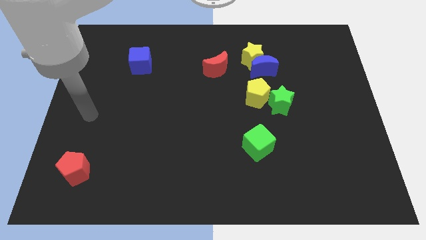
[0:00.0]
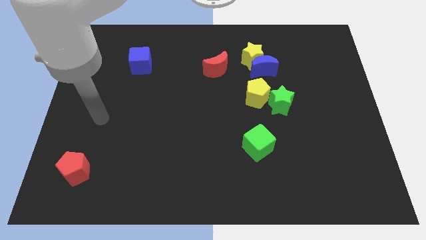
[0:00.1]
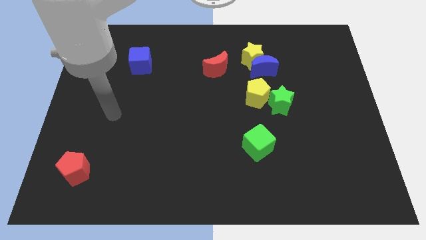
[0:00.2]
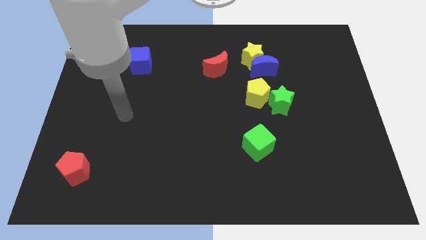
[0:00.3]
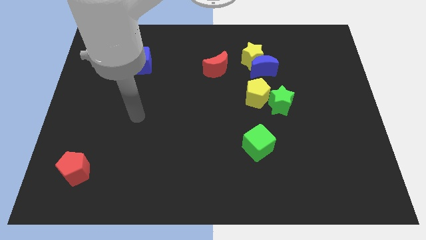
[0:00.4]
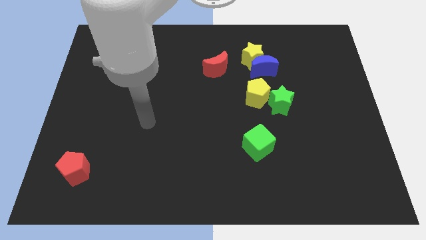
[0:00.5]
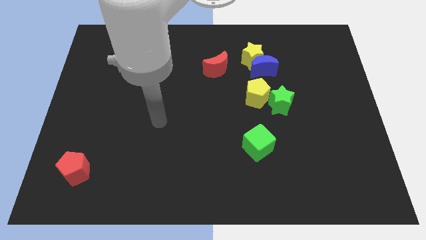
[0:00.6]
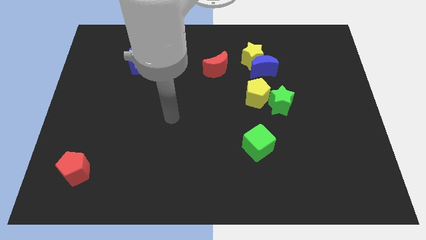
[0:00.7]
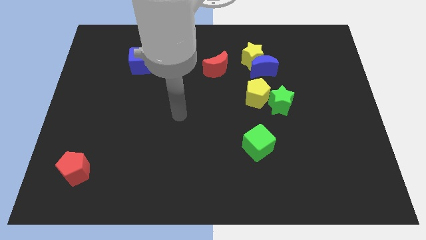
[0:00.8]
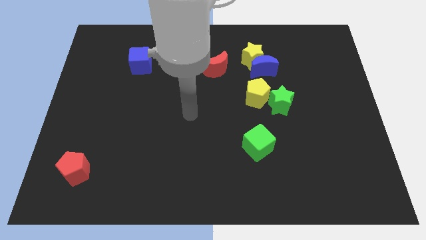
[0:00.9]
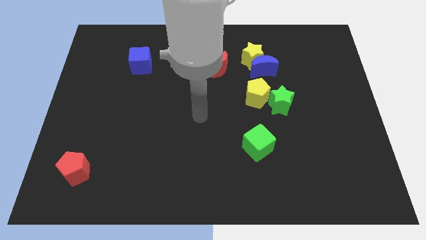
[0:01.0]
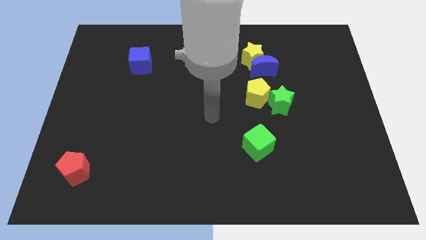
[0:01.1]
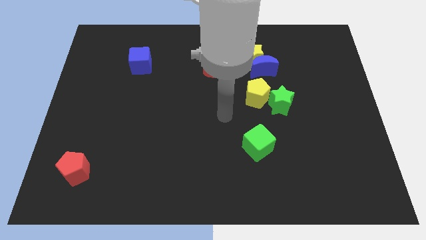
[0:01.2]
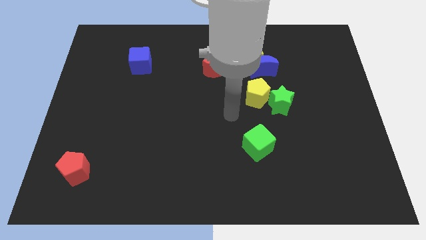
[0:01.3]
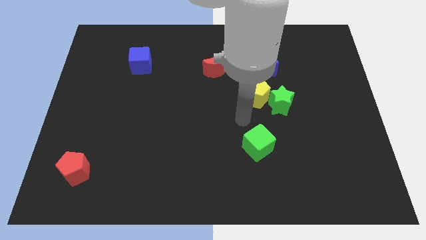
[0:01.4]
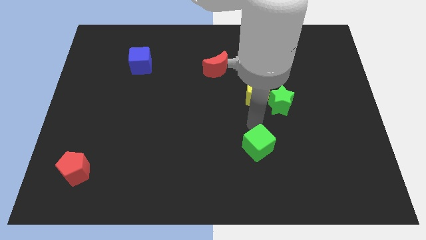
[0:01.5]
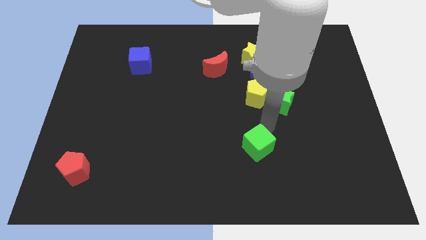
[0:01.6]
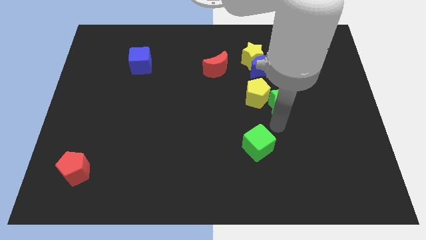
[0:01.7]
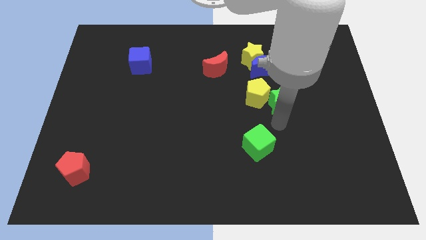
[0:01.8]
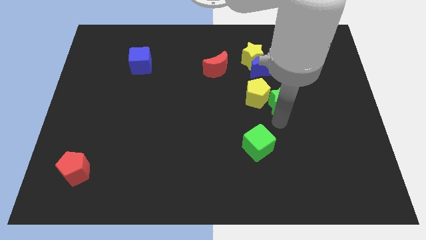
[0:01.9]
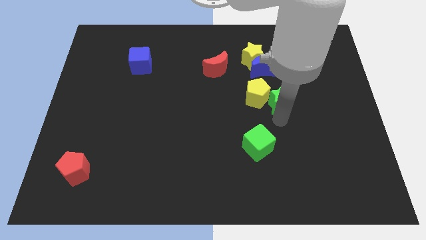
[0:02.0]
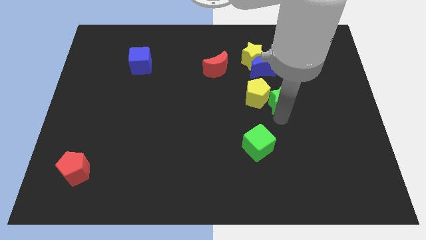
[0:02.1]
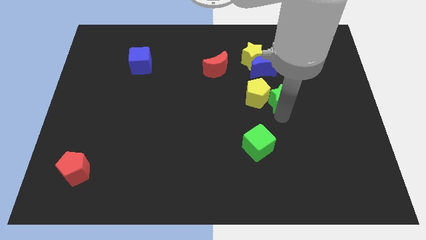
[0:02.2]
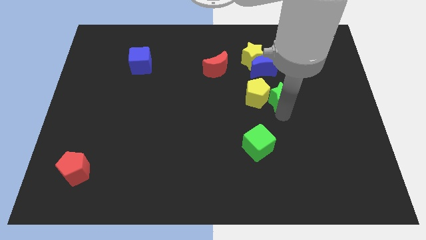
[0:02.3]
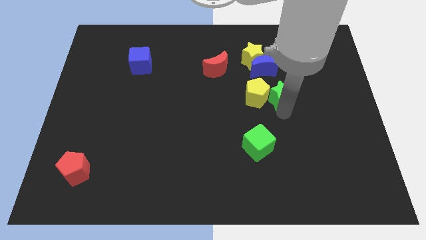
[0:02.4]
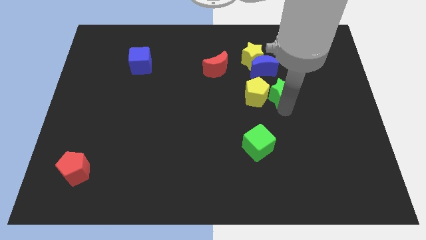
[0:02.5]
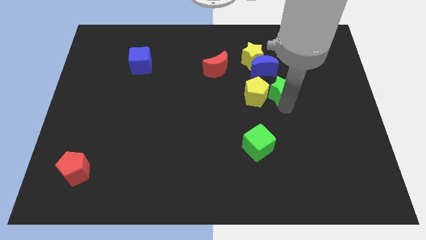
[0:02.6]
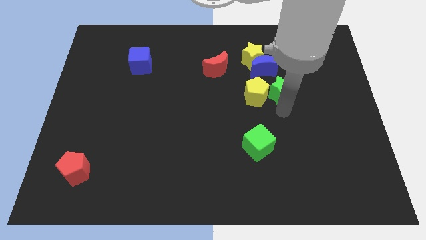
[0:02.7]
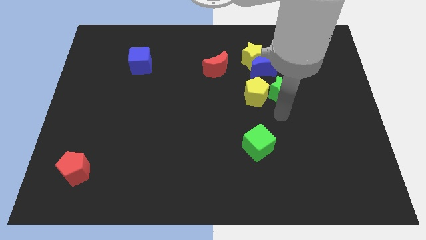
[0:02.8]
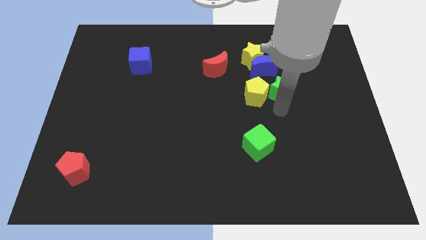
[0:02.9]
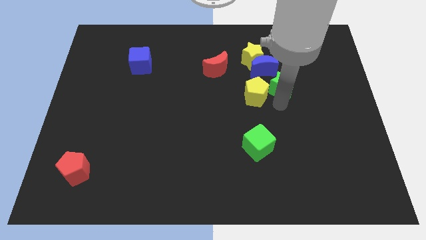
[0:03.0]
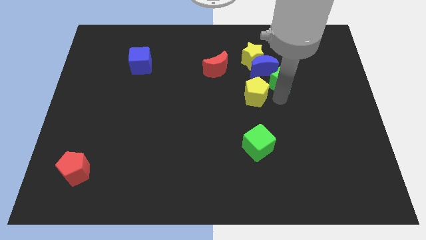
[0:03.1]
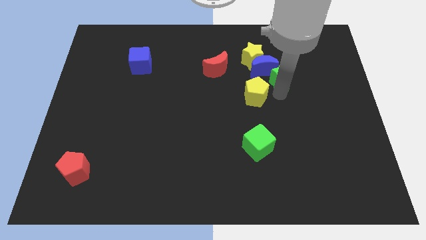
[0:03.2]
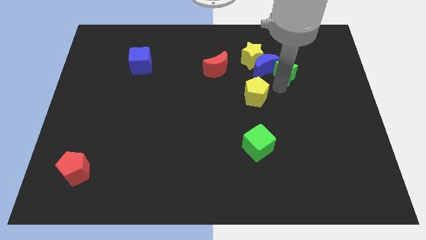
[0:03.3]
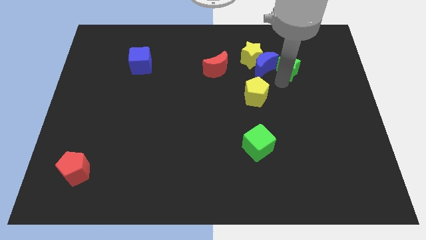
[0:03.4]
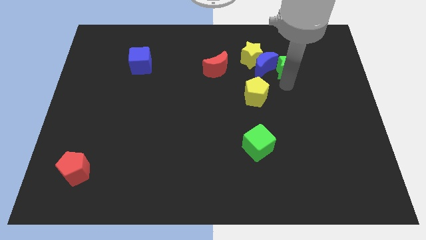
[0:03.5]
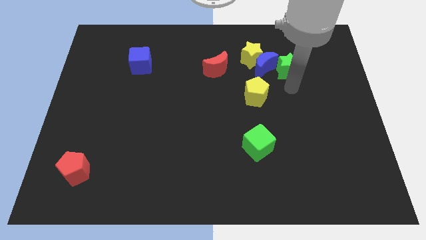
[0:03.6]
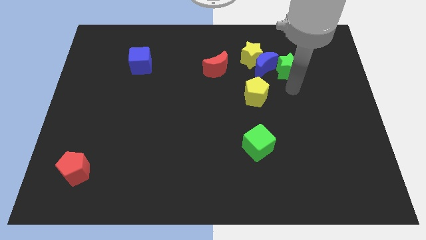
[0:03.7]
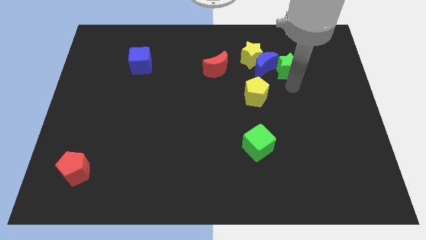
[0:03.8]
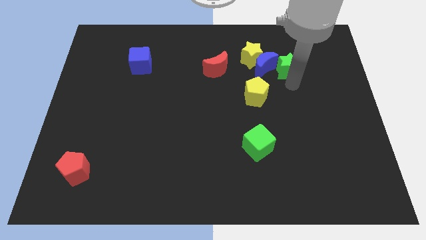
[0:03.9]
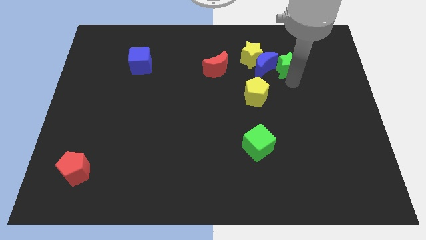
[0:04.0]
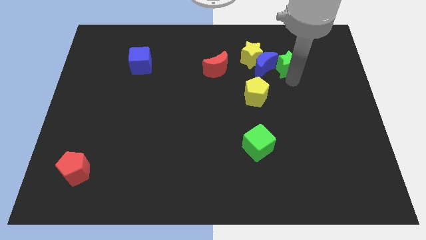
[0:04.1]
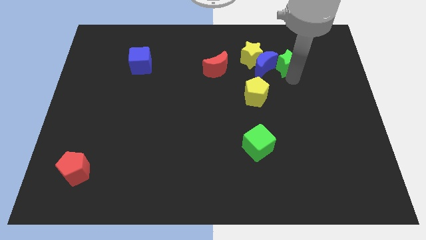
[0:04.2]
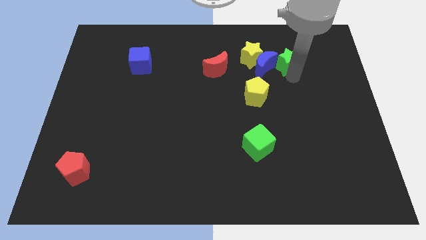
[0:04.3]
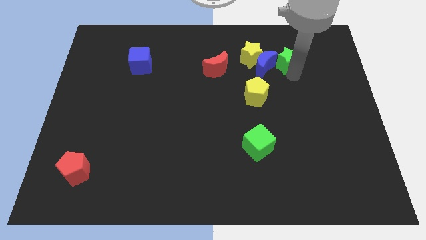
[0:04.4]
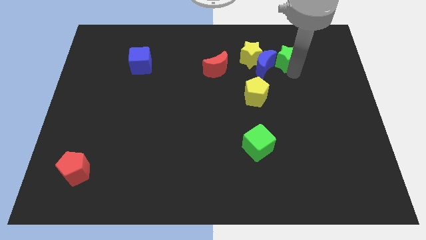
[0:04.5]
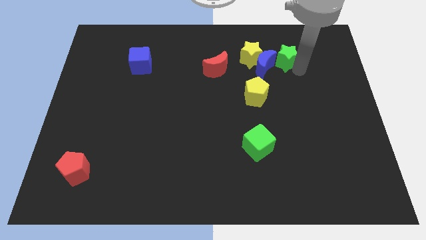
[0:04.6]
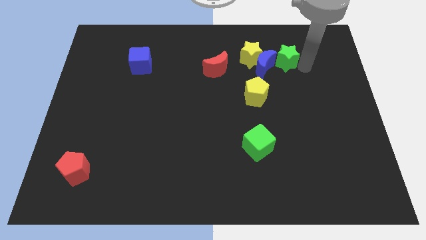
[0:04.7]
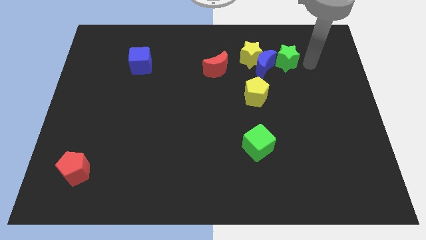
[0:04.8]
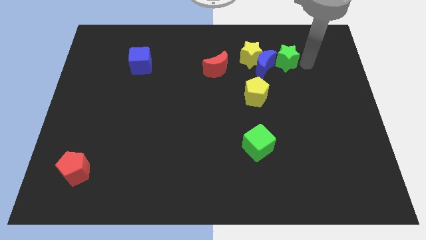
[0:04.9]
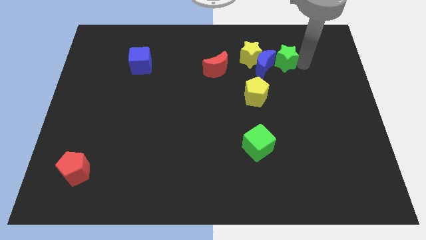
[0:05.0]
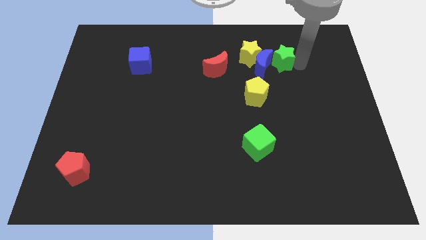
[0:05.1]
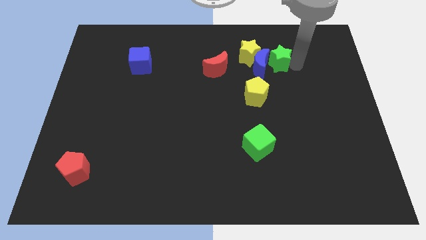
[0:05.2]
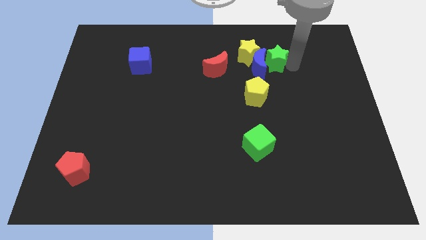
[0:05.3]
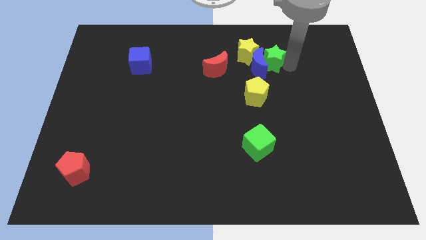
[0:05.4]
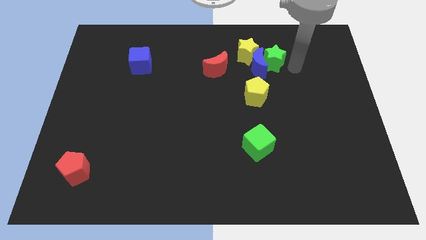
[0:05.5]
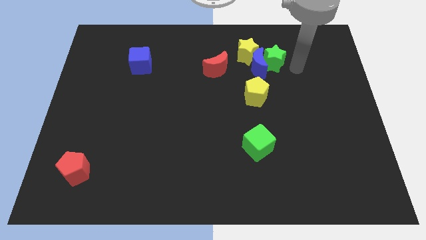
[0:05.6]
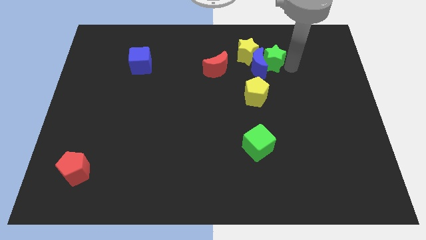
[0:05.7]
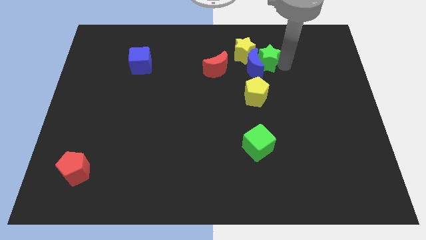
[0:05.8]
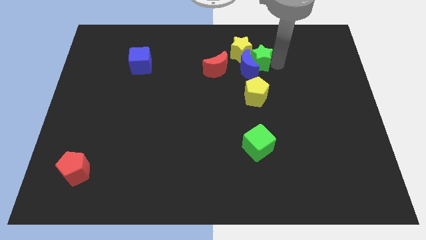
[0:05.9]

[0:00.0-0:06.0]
slide the green star towards the yellow star

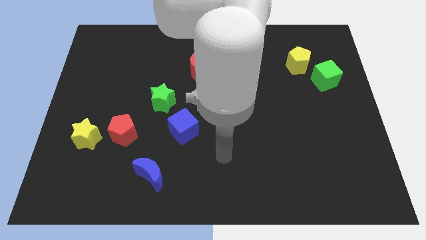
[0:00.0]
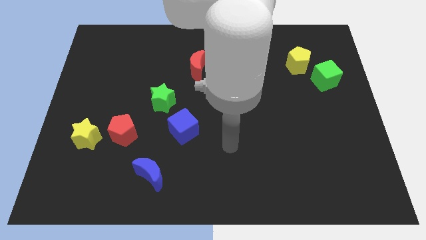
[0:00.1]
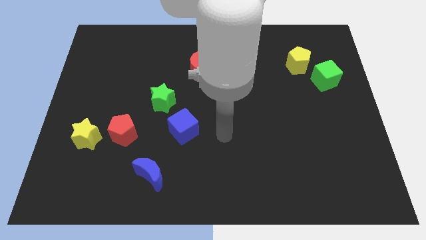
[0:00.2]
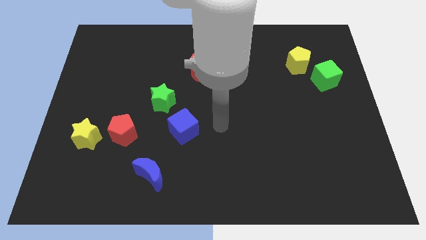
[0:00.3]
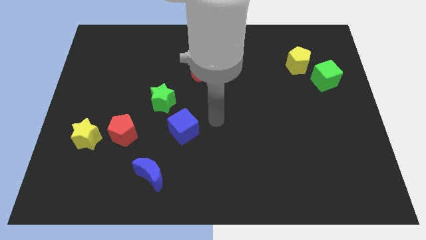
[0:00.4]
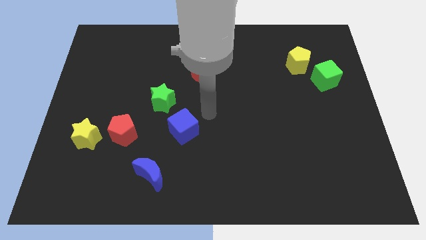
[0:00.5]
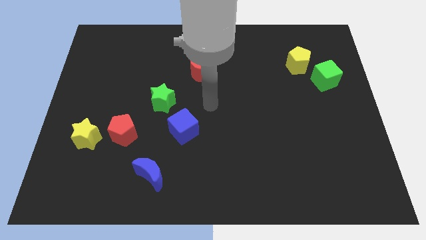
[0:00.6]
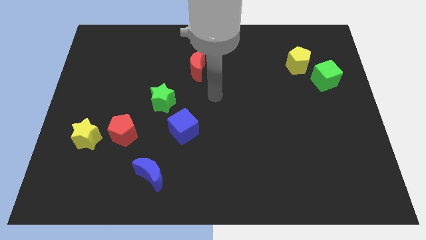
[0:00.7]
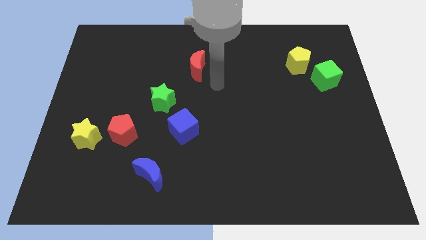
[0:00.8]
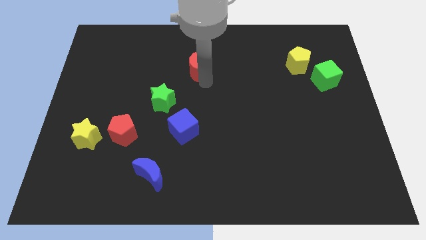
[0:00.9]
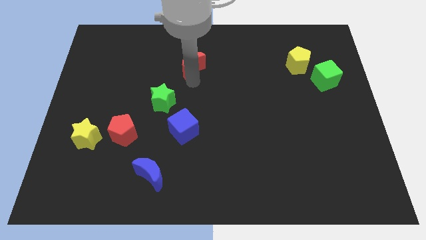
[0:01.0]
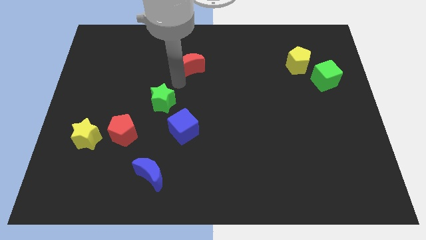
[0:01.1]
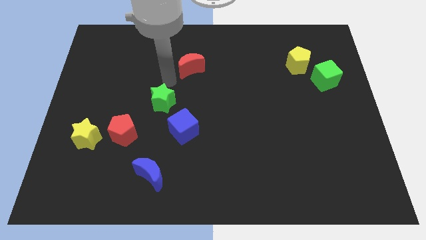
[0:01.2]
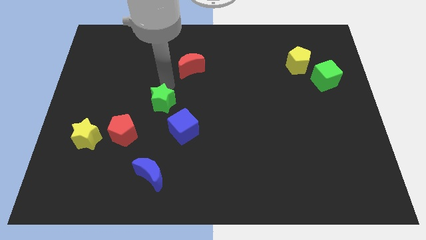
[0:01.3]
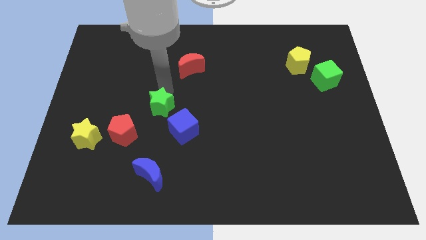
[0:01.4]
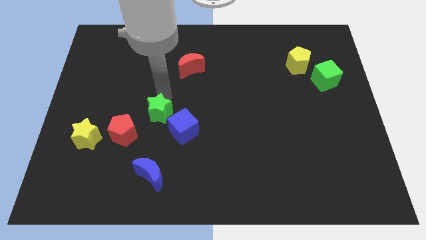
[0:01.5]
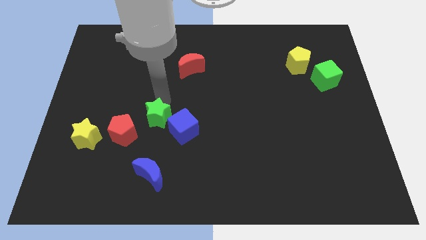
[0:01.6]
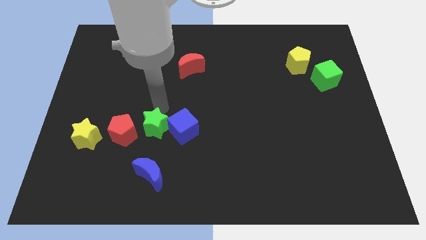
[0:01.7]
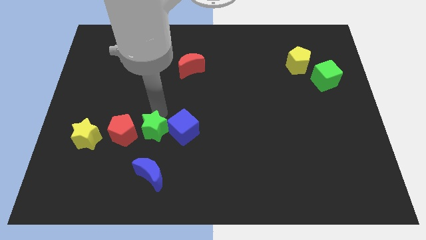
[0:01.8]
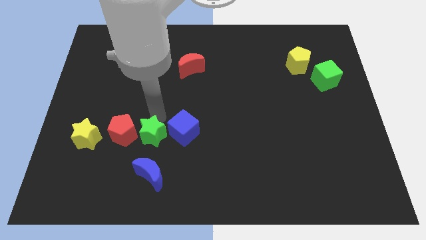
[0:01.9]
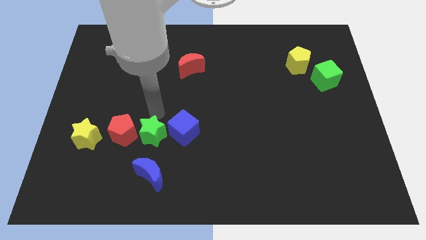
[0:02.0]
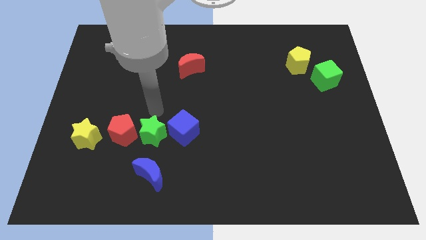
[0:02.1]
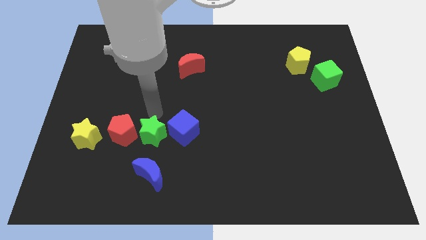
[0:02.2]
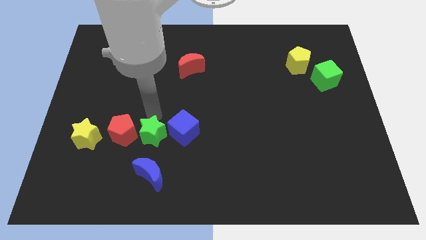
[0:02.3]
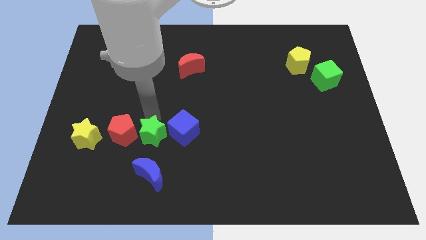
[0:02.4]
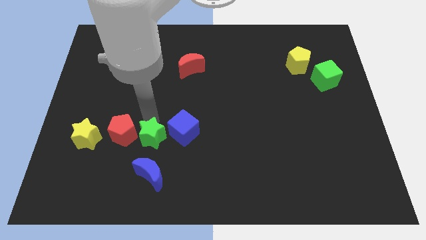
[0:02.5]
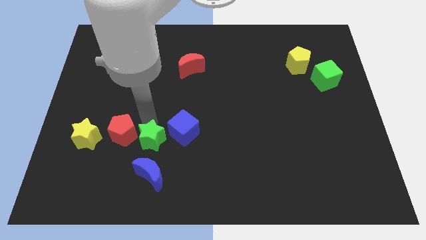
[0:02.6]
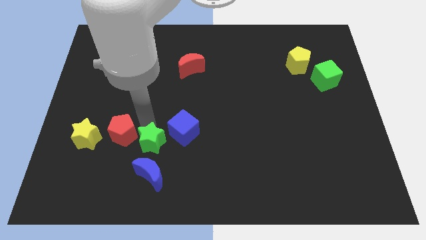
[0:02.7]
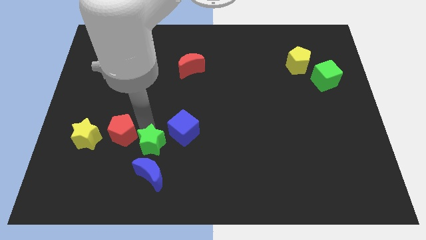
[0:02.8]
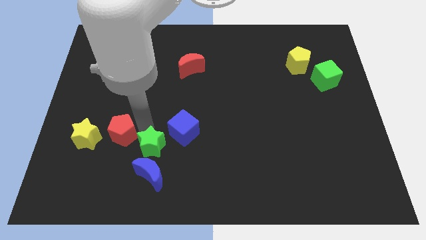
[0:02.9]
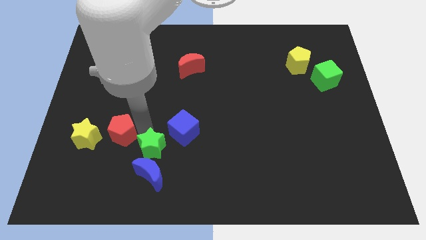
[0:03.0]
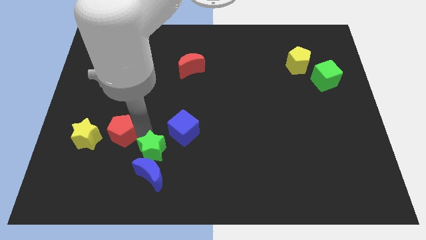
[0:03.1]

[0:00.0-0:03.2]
push the green star close to the blue moon
